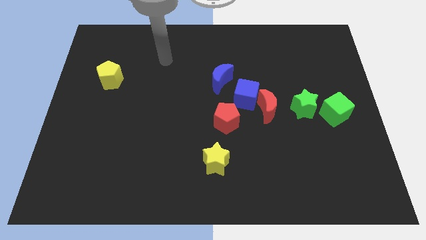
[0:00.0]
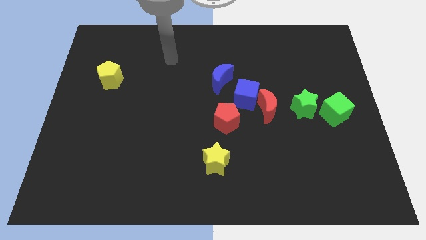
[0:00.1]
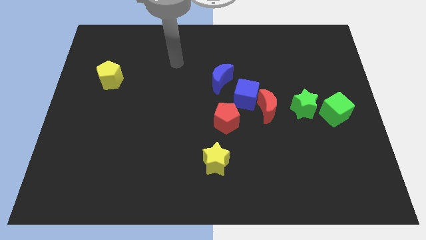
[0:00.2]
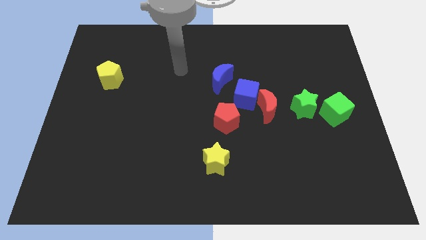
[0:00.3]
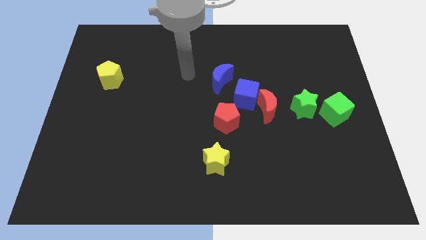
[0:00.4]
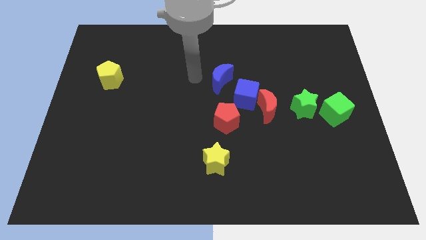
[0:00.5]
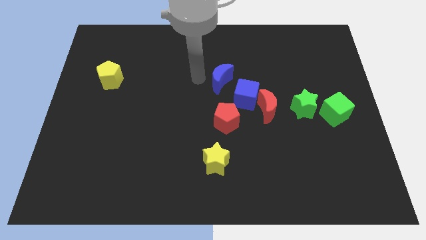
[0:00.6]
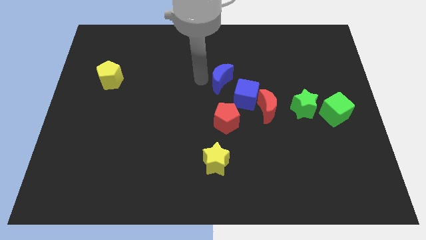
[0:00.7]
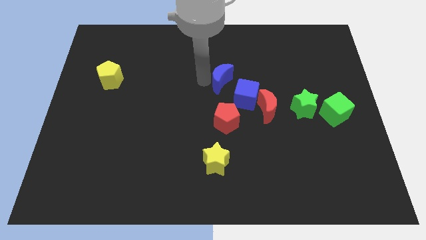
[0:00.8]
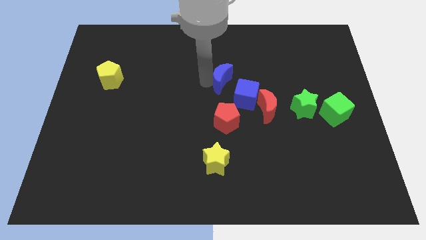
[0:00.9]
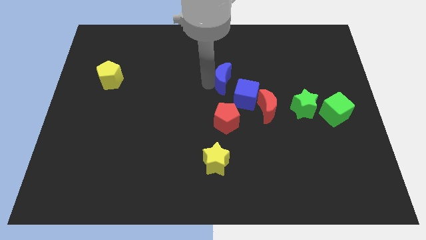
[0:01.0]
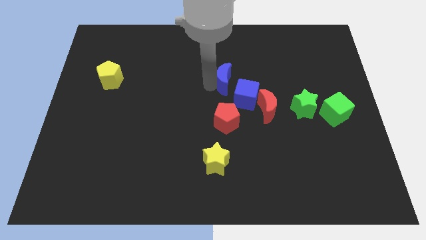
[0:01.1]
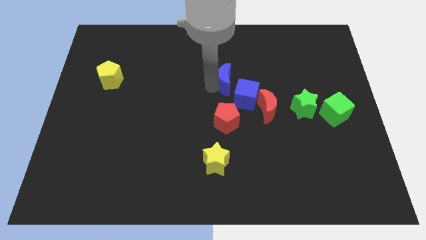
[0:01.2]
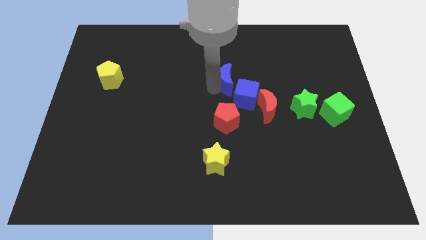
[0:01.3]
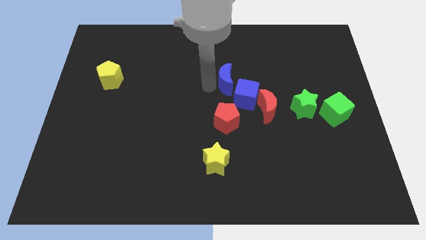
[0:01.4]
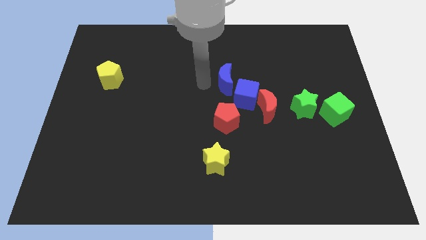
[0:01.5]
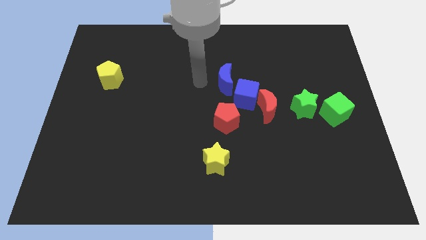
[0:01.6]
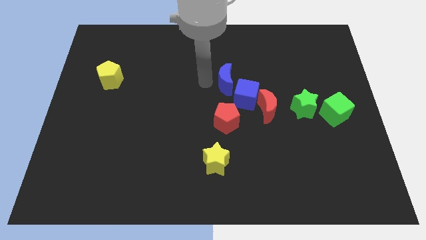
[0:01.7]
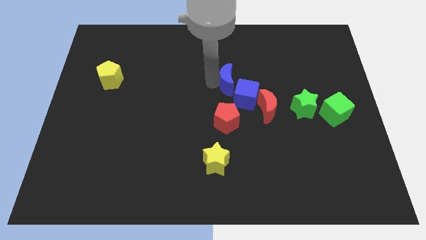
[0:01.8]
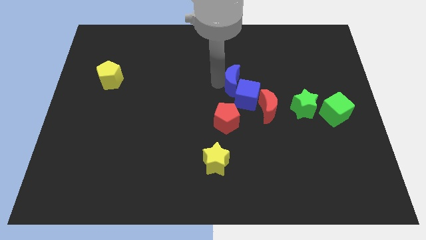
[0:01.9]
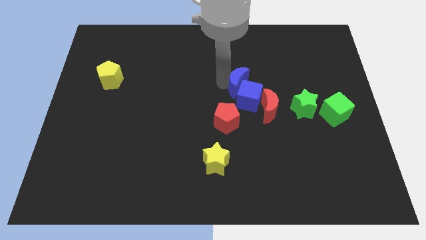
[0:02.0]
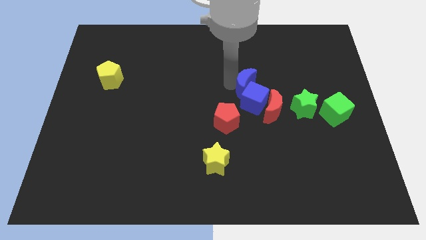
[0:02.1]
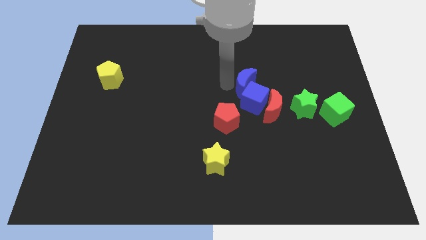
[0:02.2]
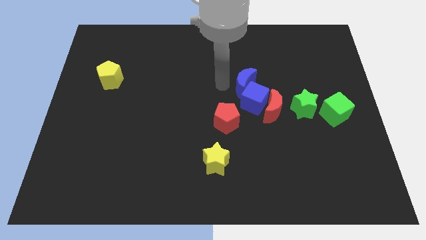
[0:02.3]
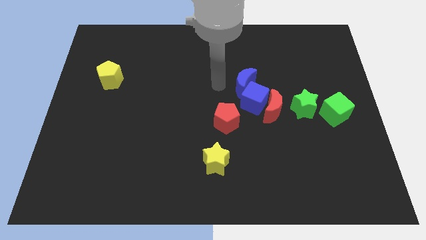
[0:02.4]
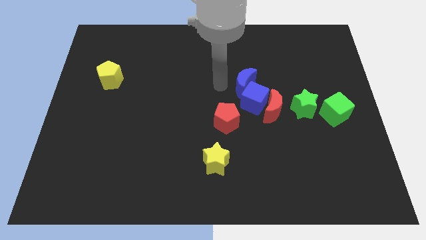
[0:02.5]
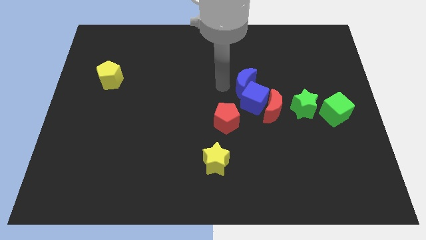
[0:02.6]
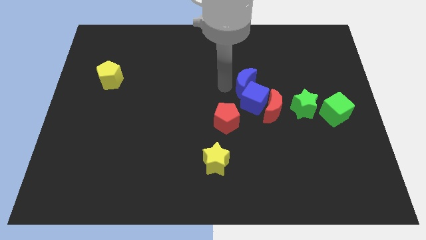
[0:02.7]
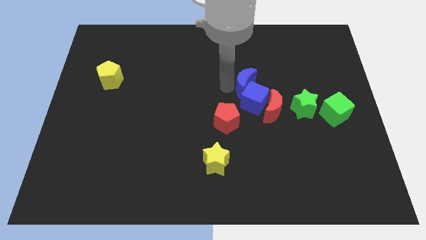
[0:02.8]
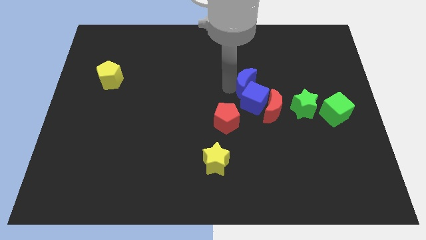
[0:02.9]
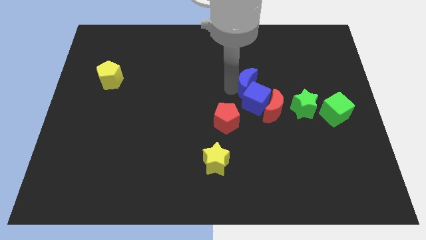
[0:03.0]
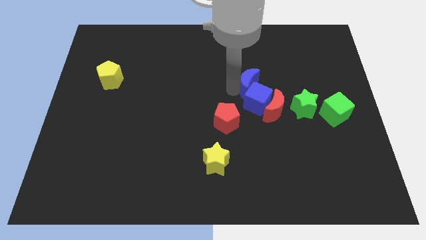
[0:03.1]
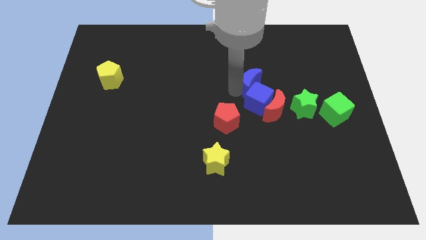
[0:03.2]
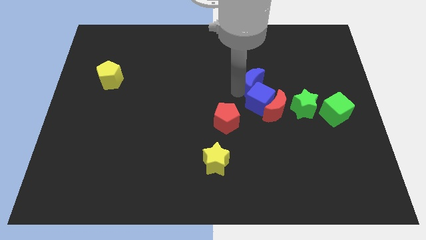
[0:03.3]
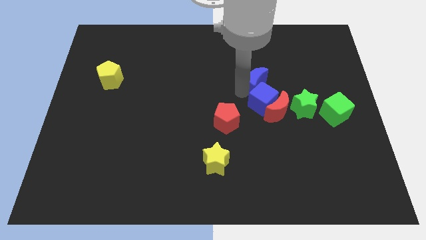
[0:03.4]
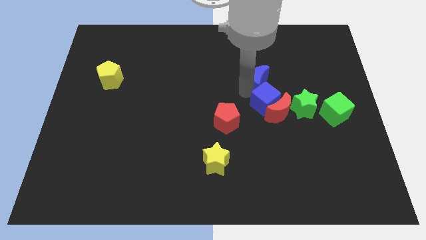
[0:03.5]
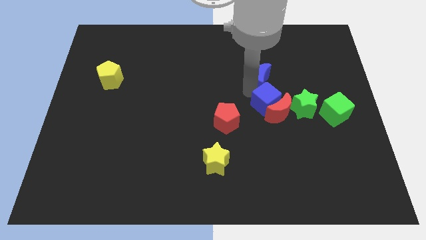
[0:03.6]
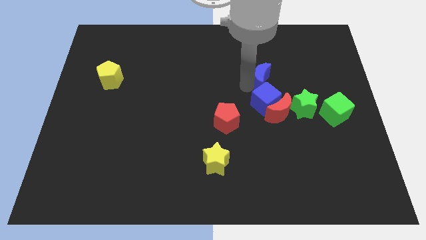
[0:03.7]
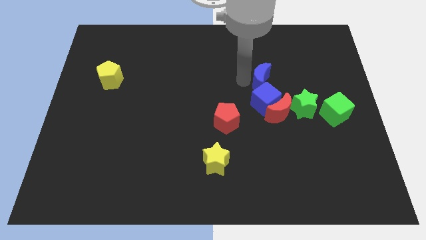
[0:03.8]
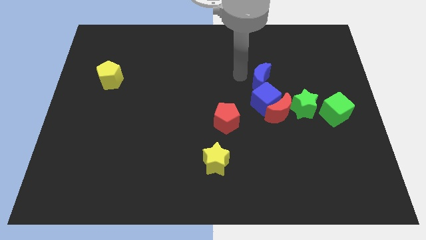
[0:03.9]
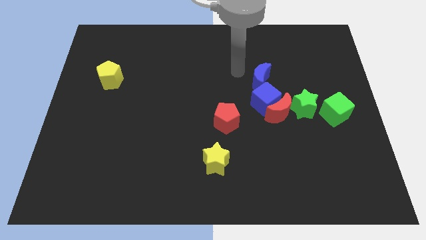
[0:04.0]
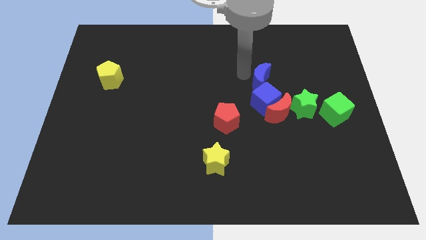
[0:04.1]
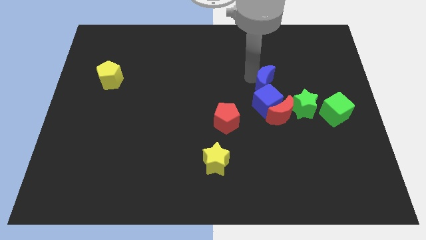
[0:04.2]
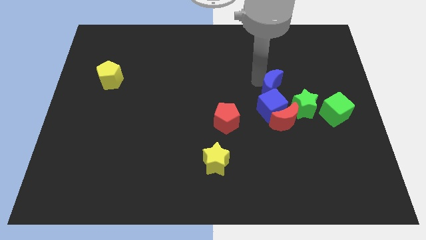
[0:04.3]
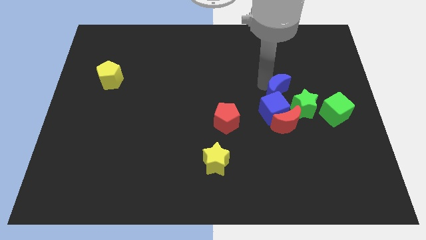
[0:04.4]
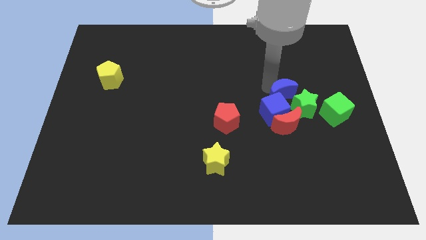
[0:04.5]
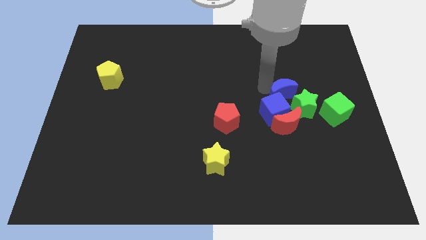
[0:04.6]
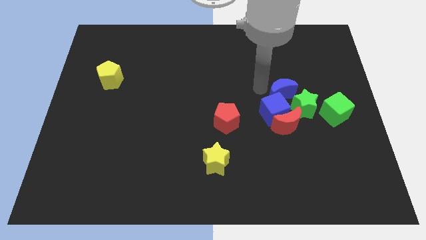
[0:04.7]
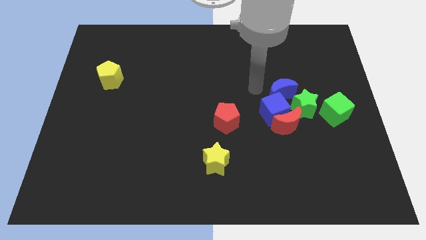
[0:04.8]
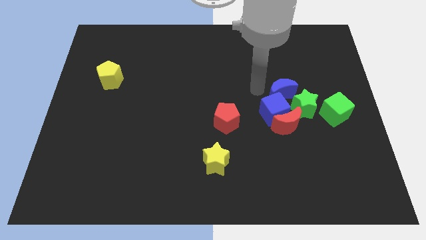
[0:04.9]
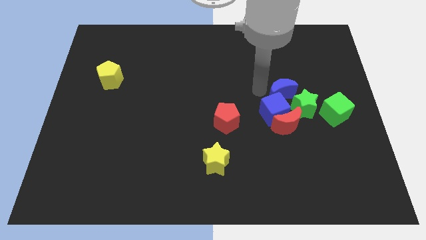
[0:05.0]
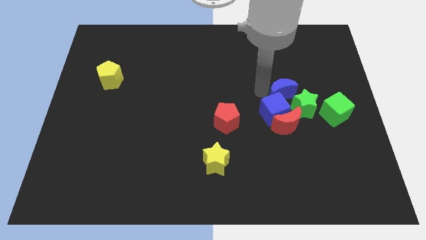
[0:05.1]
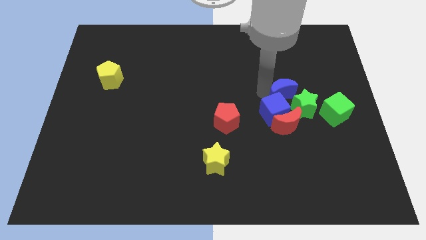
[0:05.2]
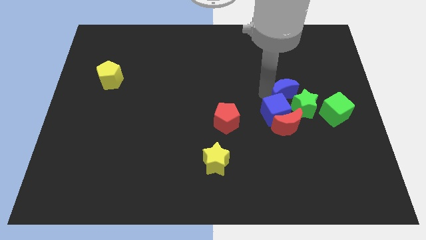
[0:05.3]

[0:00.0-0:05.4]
push the blue moon close to the green star

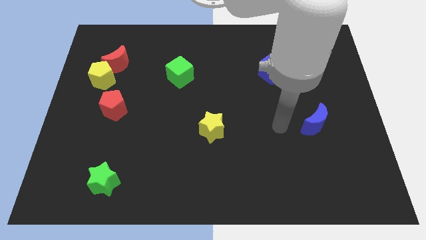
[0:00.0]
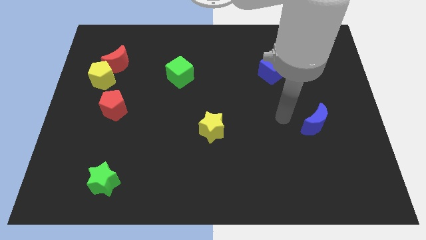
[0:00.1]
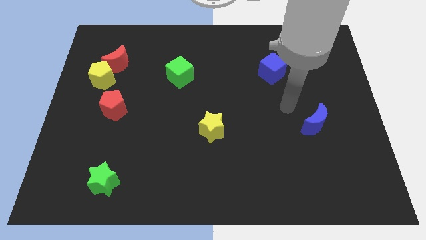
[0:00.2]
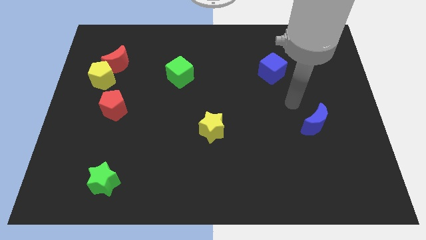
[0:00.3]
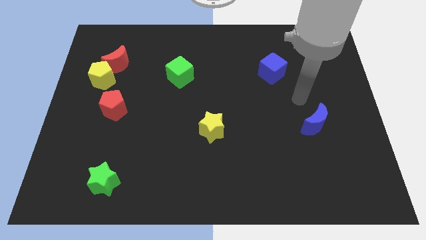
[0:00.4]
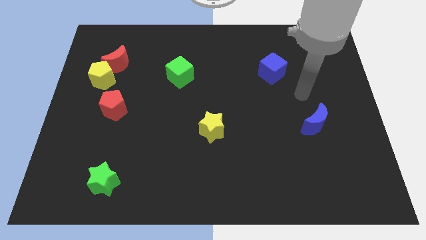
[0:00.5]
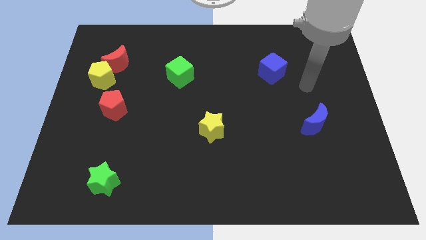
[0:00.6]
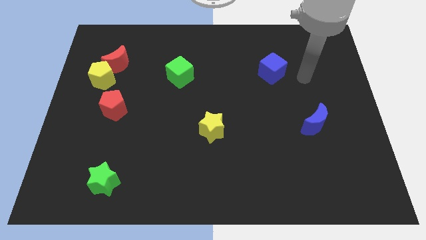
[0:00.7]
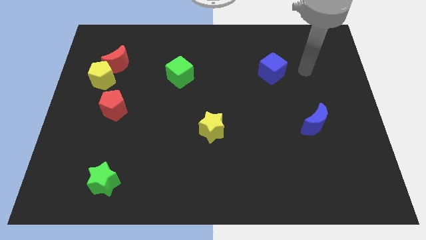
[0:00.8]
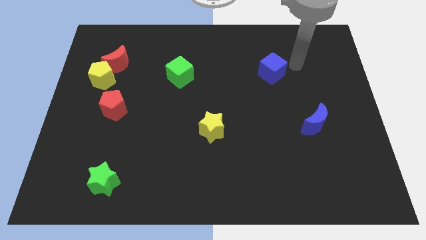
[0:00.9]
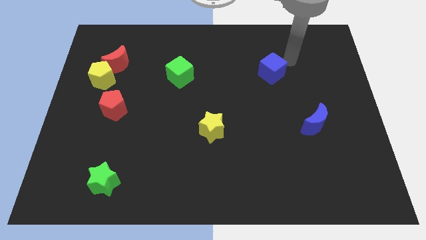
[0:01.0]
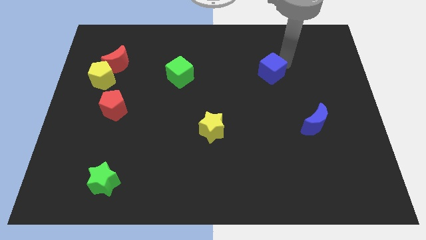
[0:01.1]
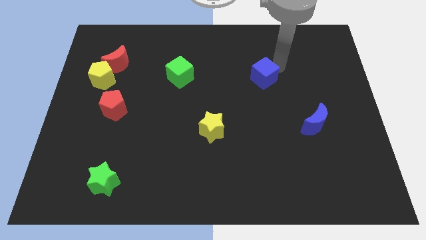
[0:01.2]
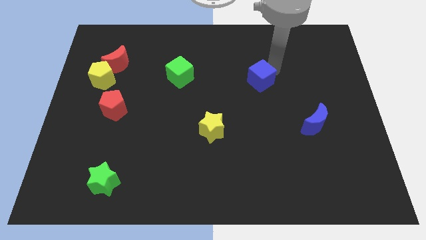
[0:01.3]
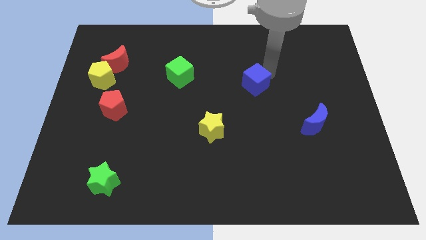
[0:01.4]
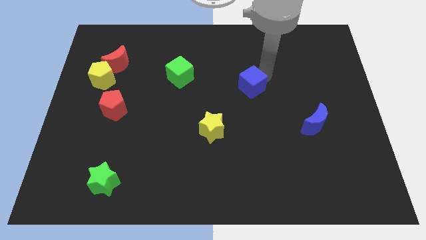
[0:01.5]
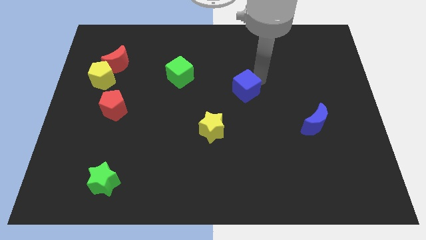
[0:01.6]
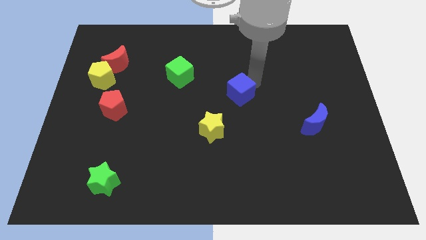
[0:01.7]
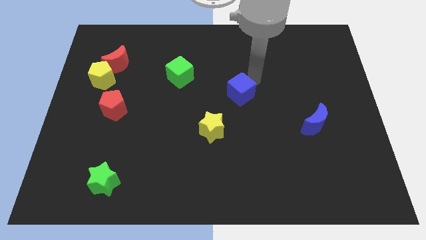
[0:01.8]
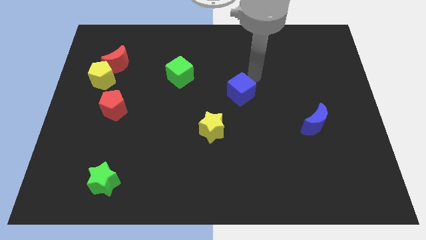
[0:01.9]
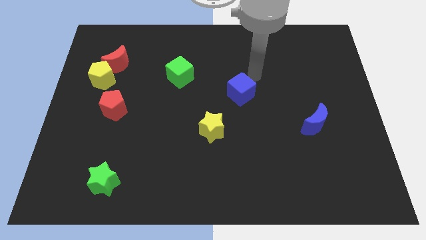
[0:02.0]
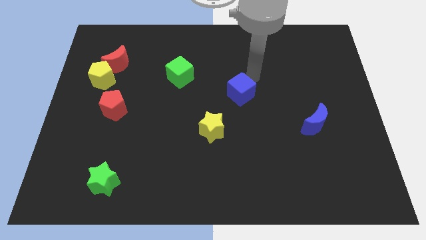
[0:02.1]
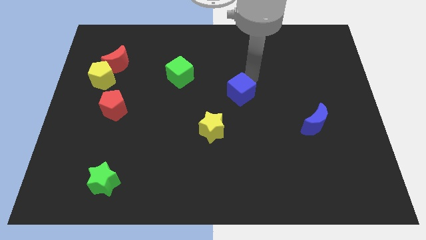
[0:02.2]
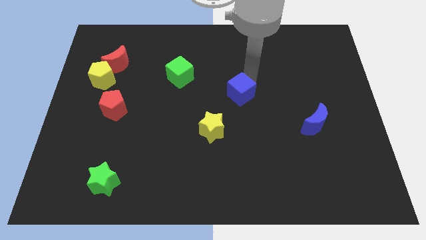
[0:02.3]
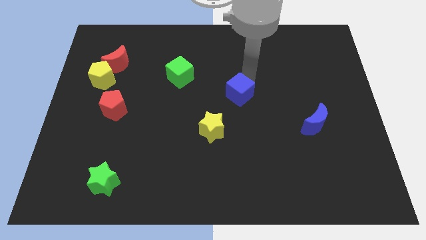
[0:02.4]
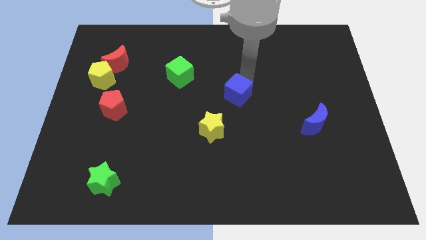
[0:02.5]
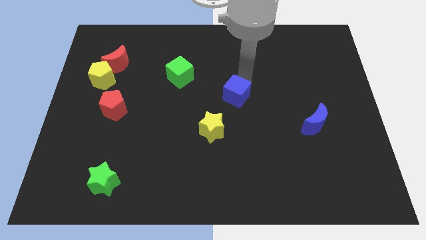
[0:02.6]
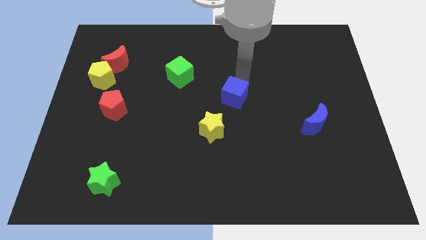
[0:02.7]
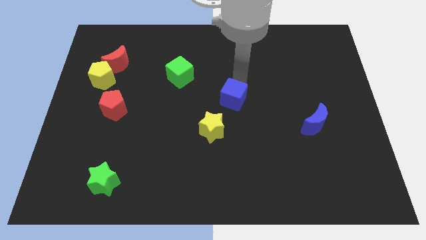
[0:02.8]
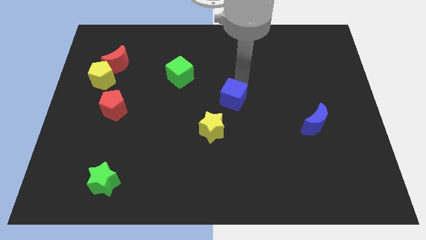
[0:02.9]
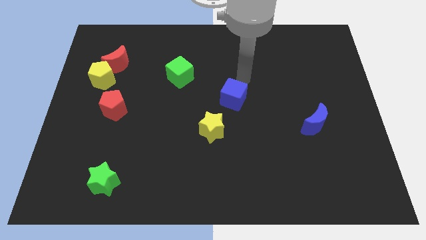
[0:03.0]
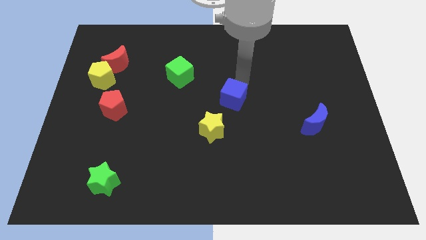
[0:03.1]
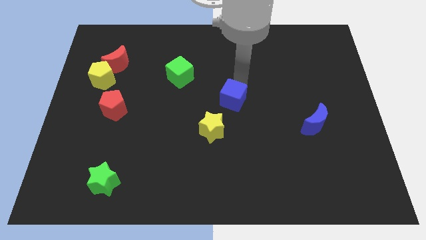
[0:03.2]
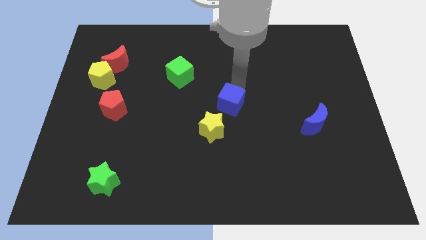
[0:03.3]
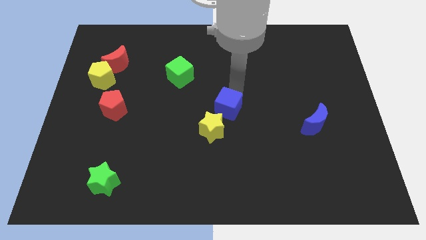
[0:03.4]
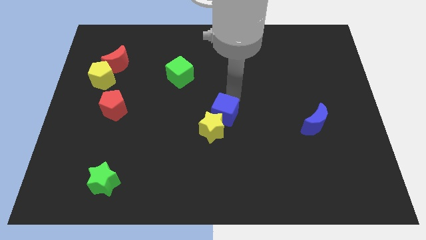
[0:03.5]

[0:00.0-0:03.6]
move the blue cube close to the yellow star
